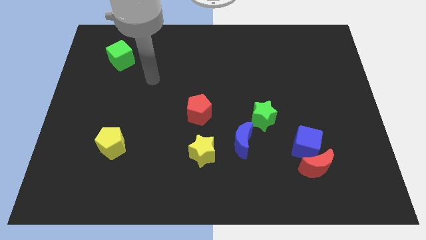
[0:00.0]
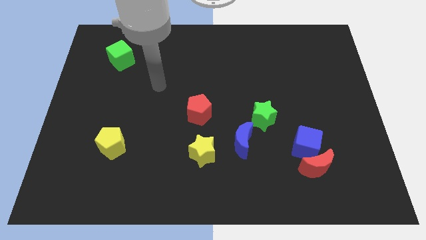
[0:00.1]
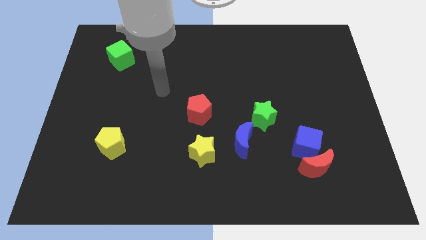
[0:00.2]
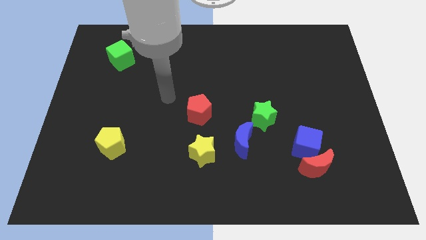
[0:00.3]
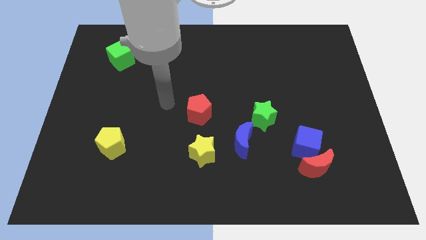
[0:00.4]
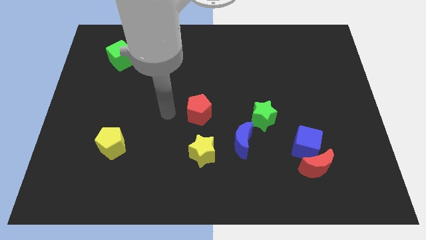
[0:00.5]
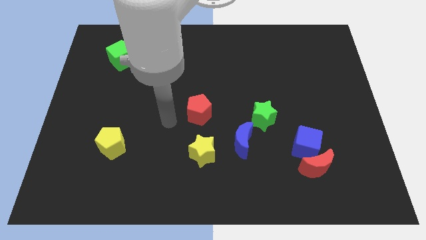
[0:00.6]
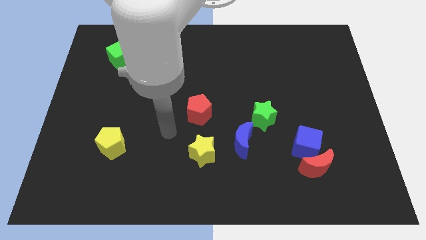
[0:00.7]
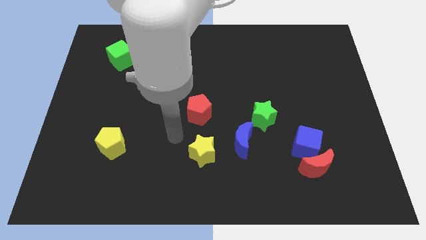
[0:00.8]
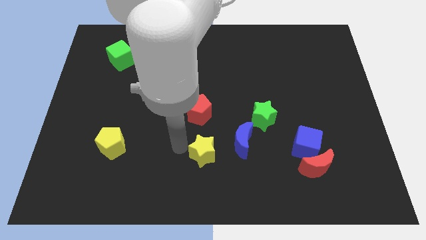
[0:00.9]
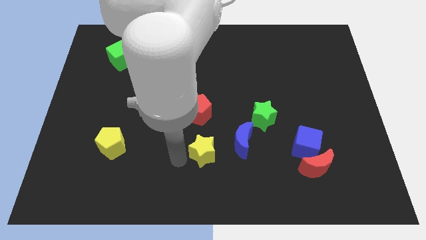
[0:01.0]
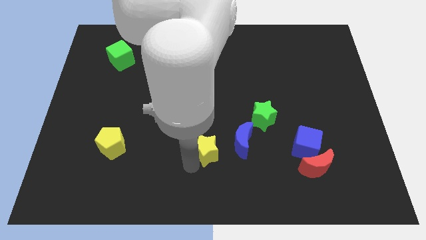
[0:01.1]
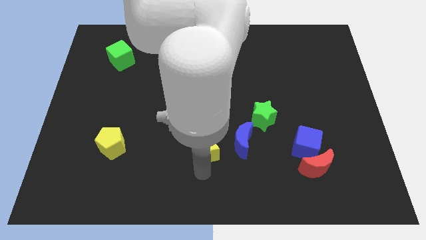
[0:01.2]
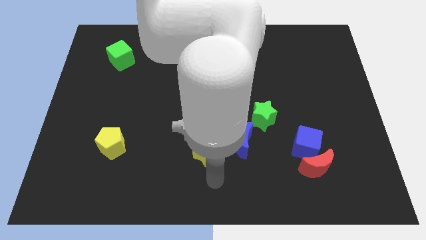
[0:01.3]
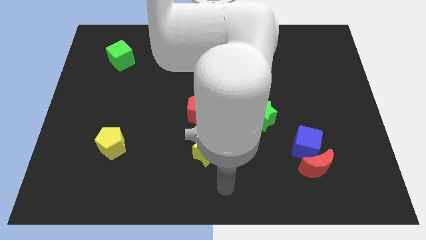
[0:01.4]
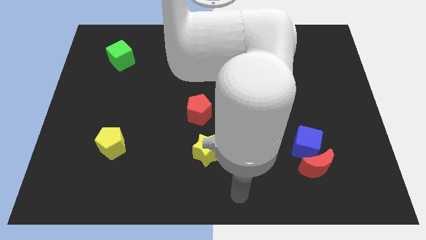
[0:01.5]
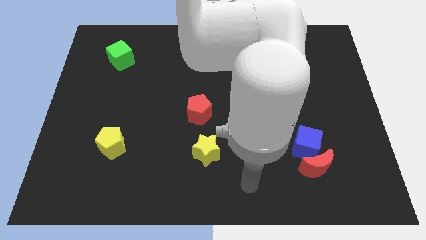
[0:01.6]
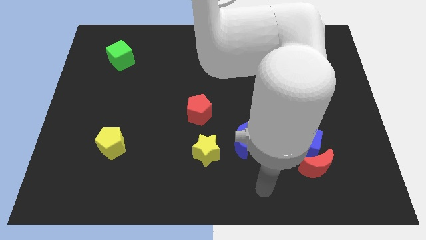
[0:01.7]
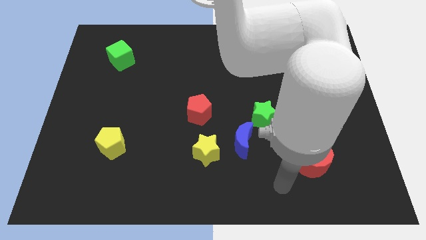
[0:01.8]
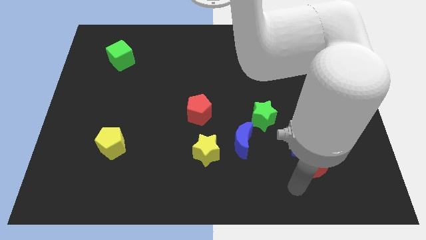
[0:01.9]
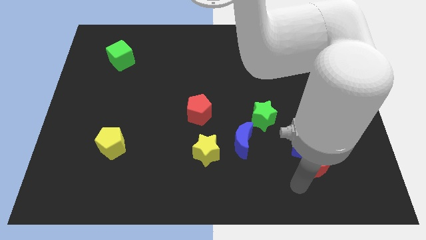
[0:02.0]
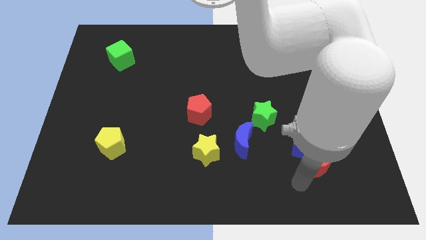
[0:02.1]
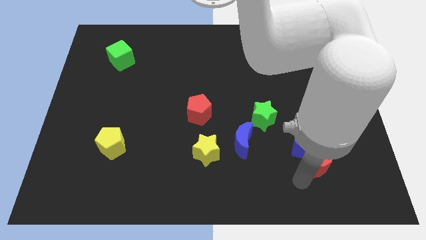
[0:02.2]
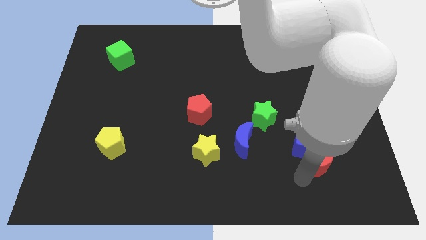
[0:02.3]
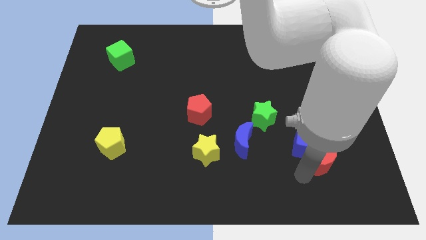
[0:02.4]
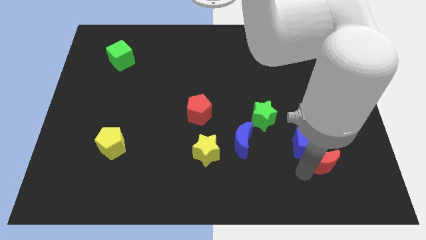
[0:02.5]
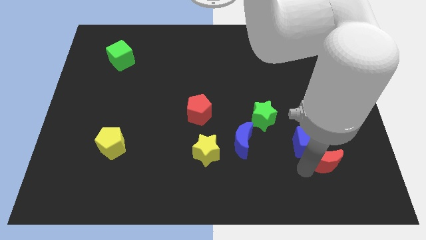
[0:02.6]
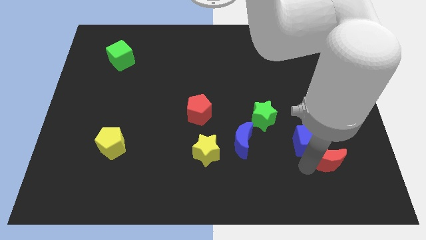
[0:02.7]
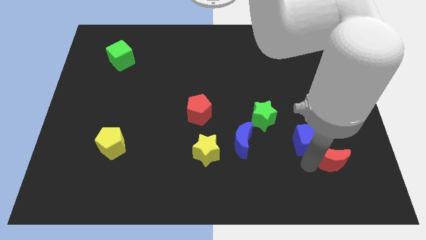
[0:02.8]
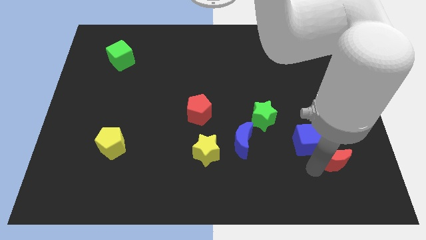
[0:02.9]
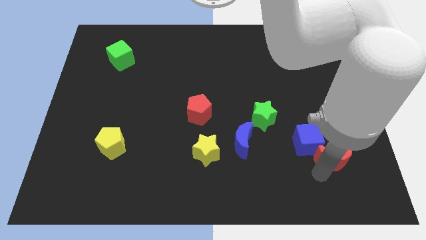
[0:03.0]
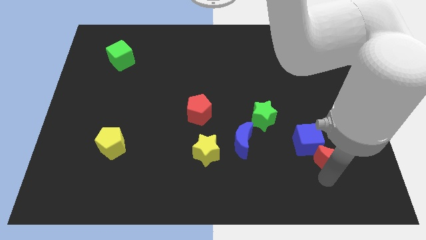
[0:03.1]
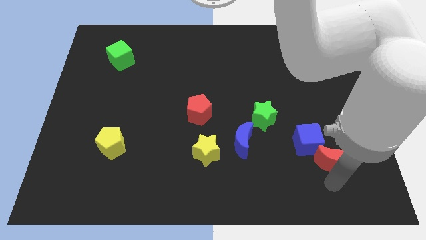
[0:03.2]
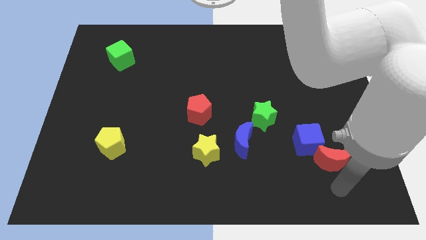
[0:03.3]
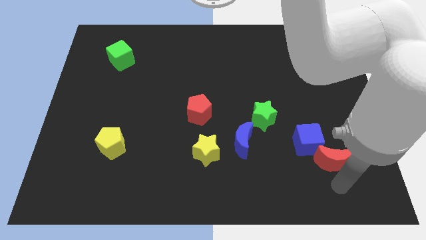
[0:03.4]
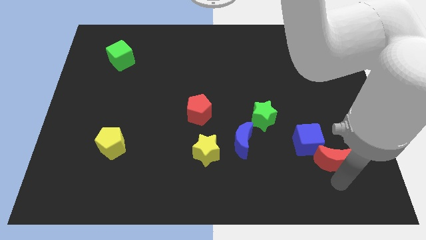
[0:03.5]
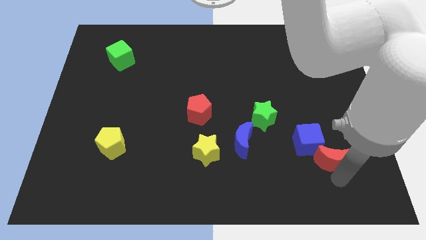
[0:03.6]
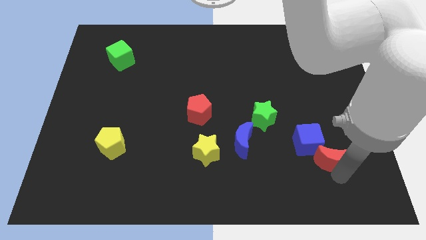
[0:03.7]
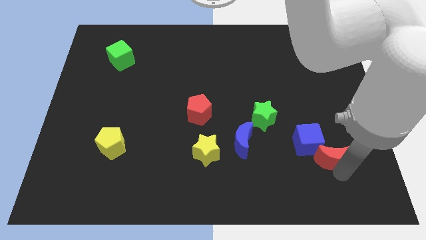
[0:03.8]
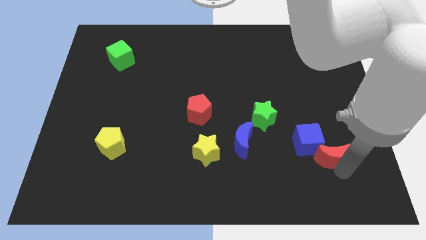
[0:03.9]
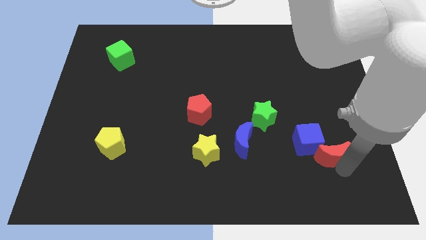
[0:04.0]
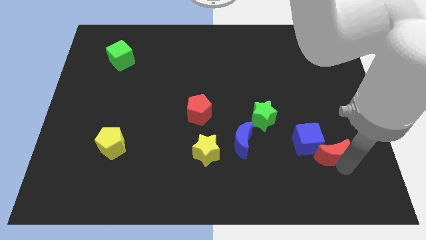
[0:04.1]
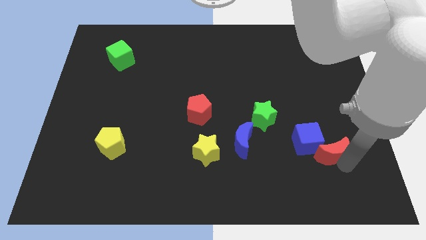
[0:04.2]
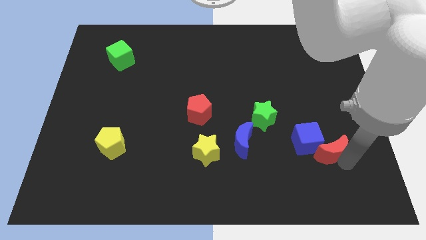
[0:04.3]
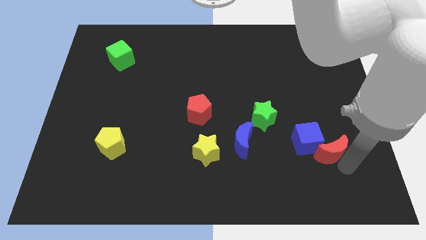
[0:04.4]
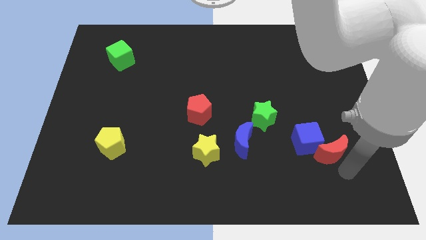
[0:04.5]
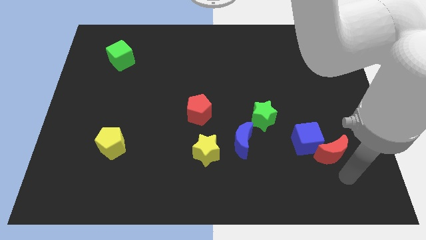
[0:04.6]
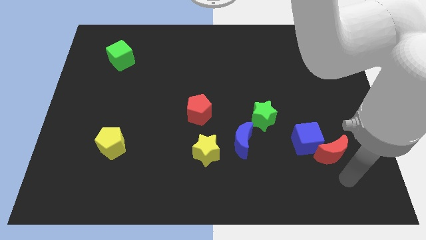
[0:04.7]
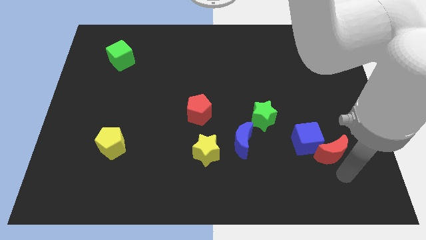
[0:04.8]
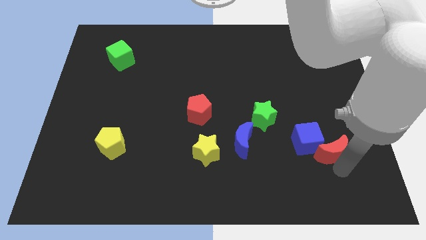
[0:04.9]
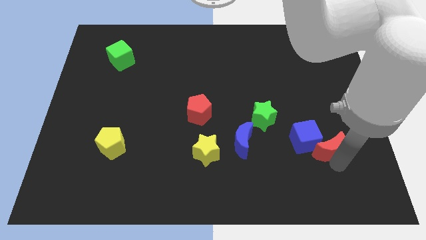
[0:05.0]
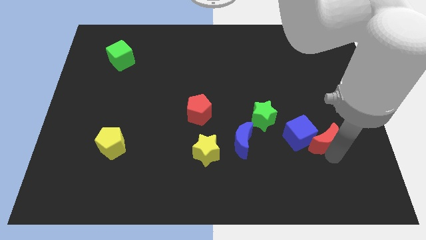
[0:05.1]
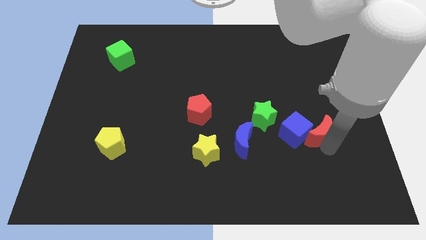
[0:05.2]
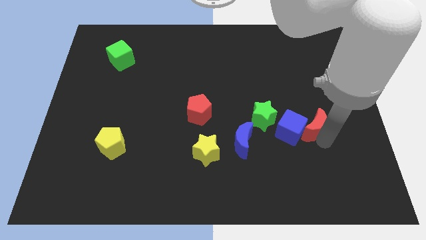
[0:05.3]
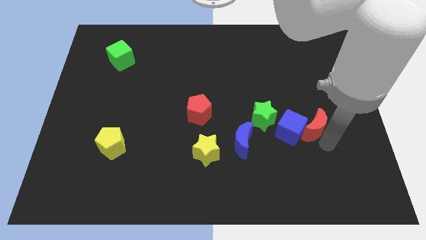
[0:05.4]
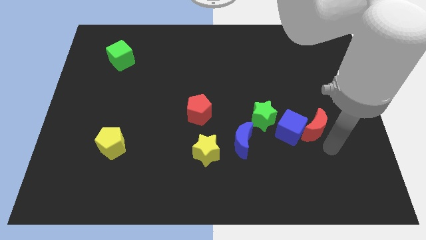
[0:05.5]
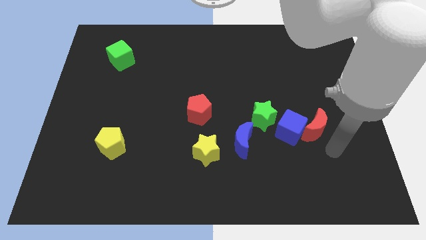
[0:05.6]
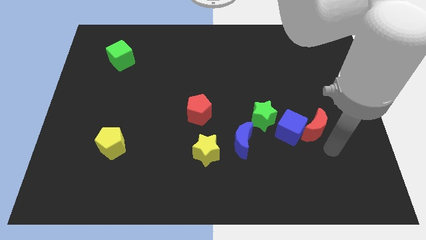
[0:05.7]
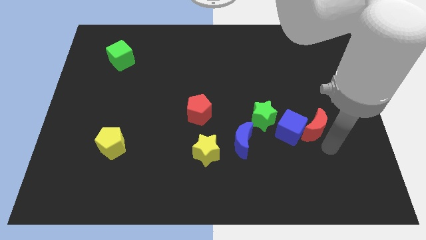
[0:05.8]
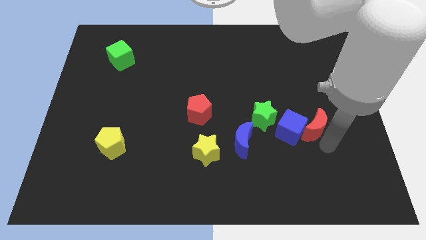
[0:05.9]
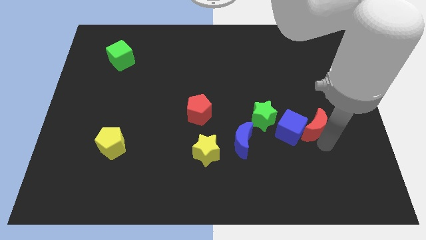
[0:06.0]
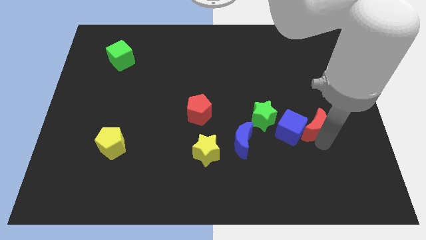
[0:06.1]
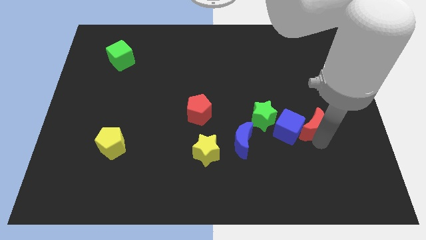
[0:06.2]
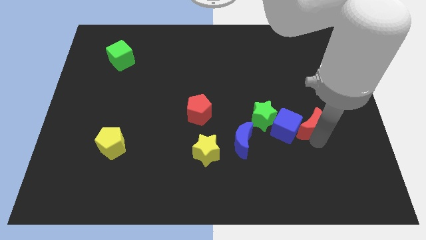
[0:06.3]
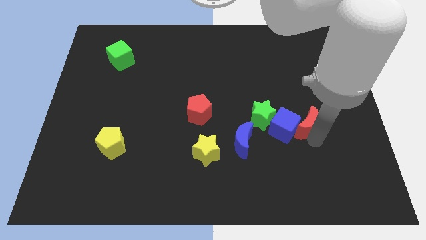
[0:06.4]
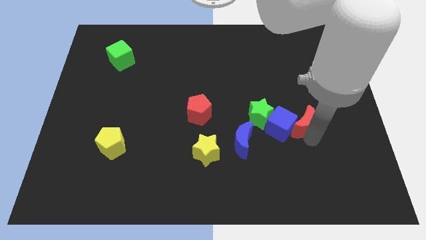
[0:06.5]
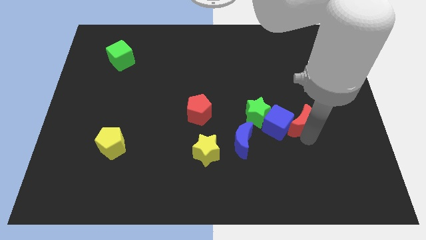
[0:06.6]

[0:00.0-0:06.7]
slightly slide the red moon up and to the left diagonally

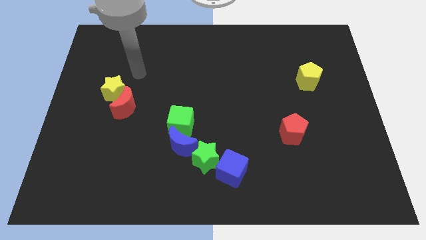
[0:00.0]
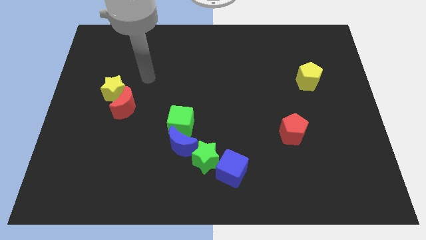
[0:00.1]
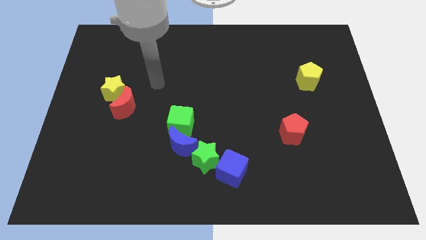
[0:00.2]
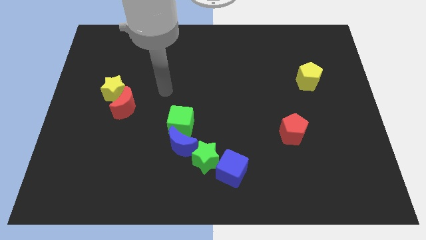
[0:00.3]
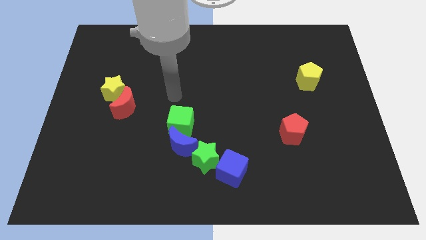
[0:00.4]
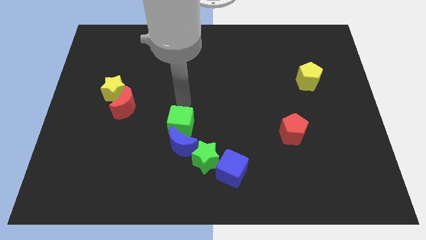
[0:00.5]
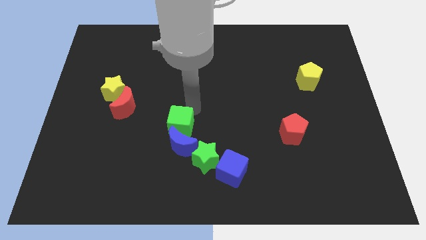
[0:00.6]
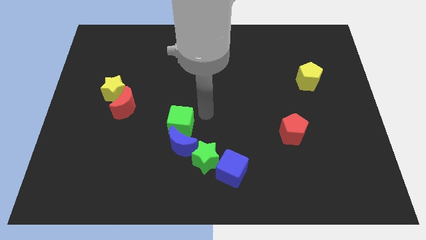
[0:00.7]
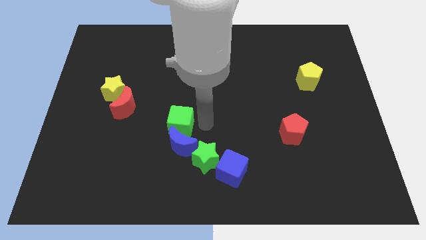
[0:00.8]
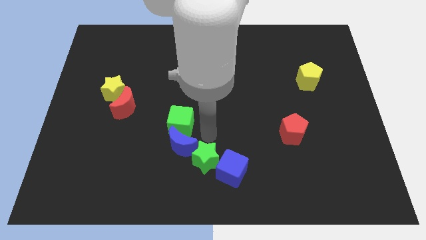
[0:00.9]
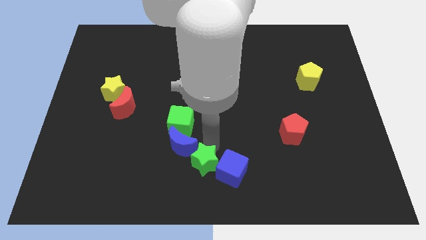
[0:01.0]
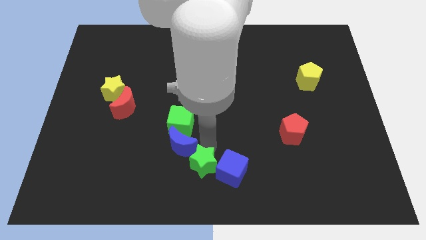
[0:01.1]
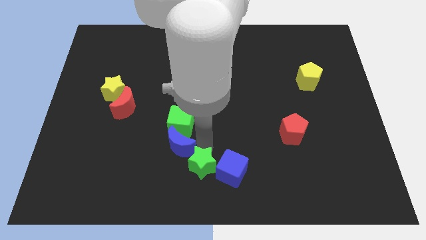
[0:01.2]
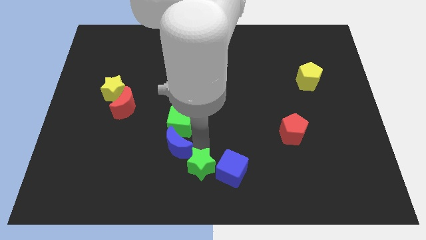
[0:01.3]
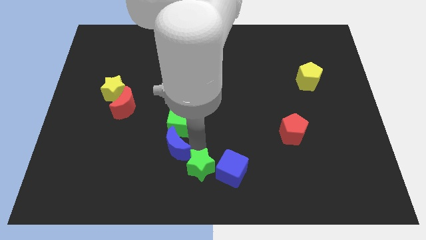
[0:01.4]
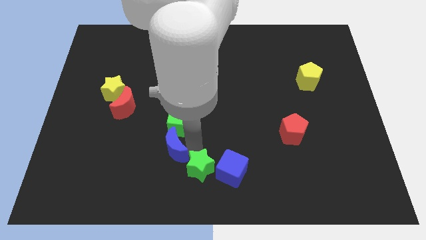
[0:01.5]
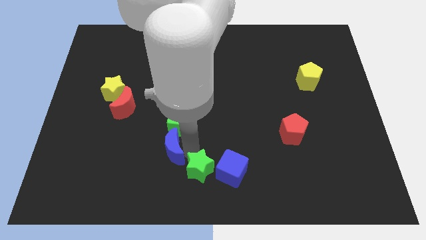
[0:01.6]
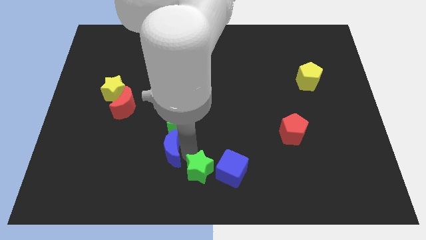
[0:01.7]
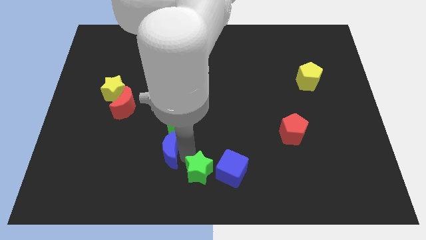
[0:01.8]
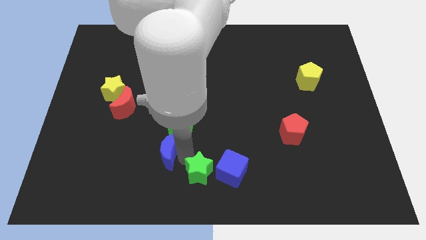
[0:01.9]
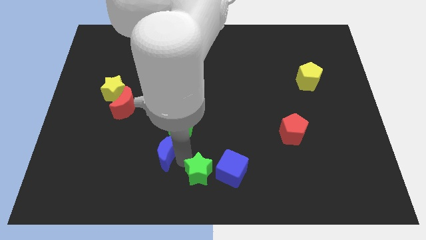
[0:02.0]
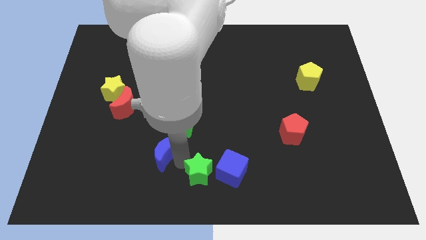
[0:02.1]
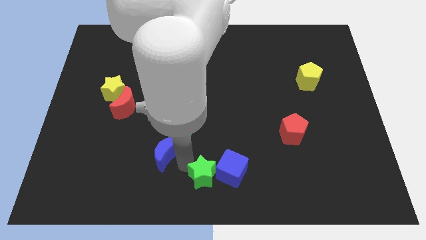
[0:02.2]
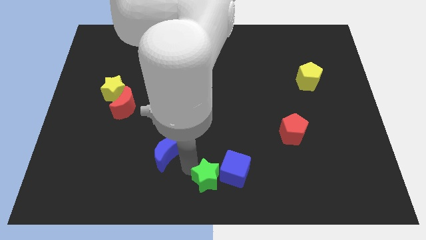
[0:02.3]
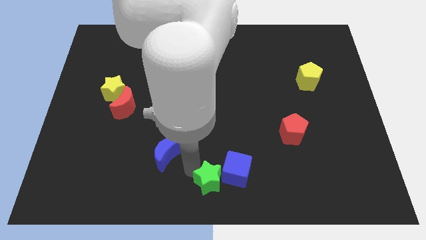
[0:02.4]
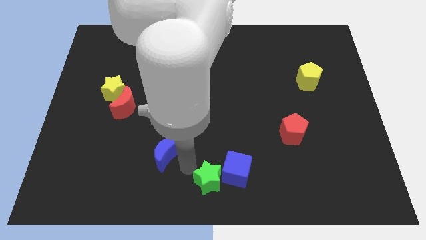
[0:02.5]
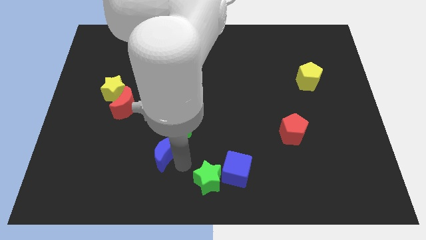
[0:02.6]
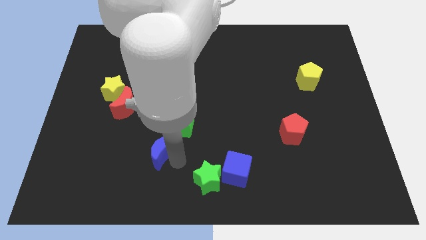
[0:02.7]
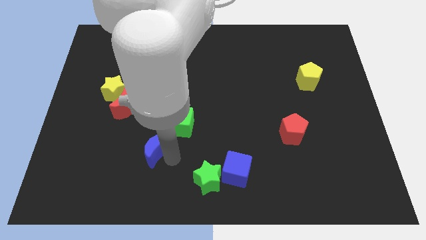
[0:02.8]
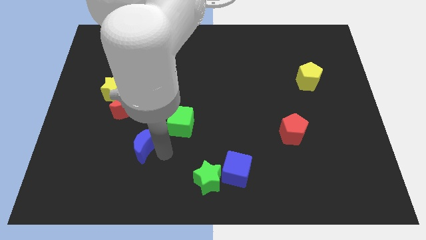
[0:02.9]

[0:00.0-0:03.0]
move the blue moon somewhat to the left
